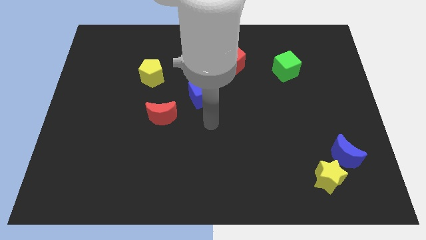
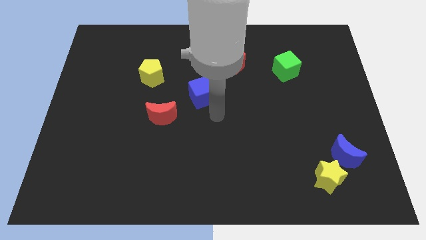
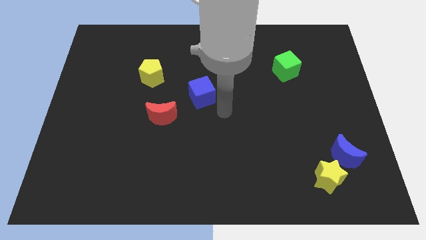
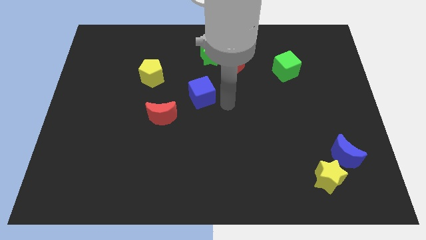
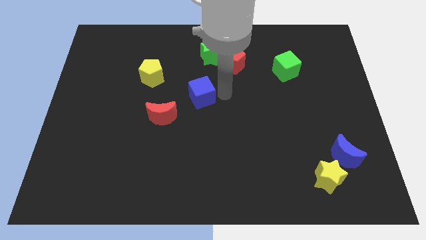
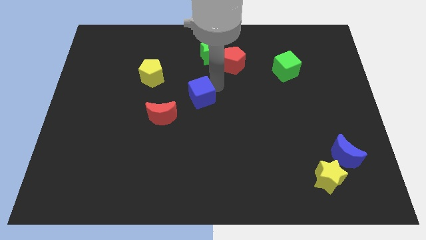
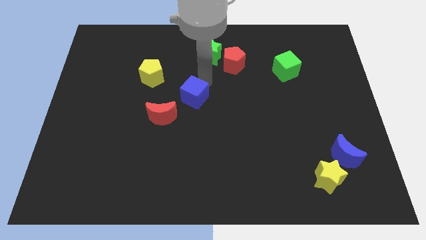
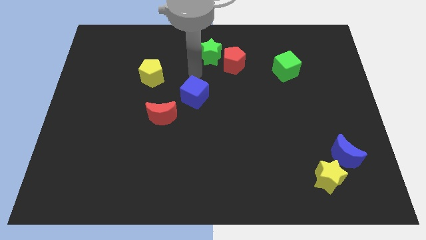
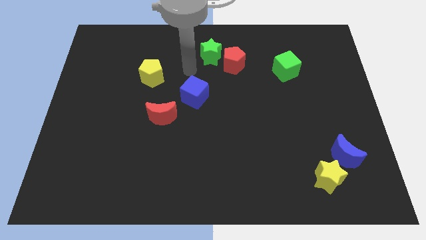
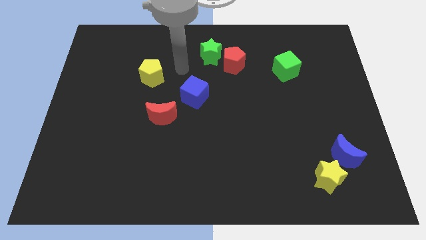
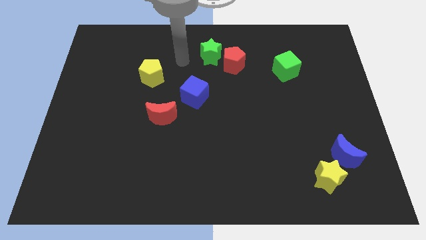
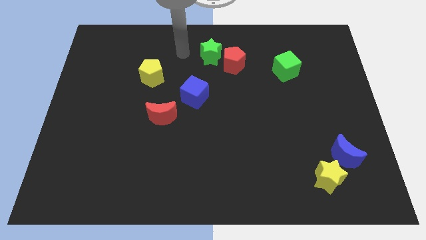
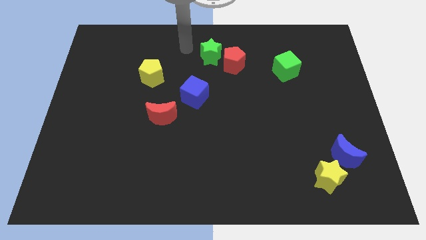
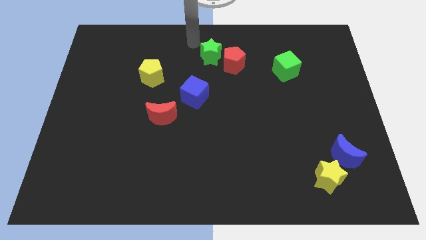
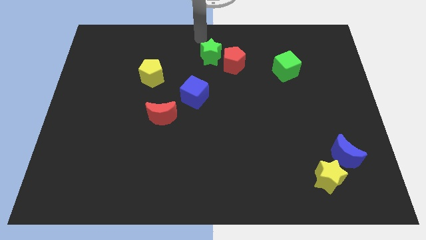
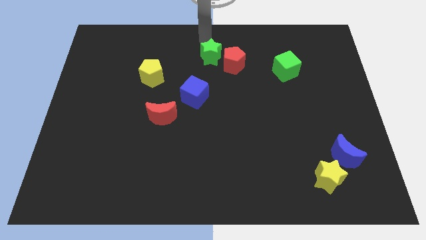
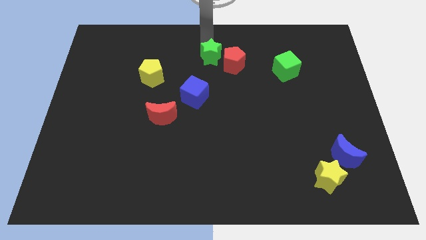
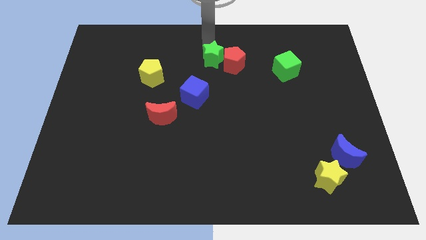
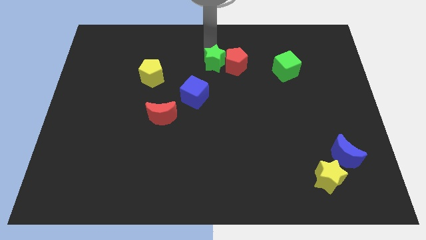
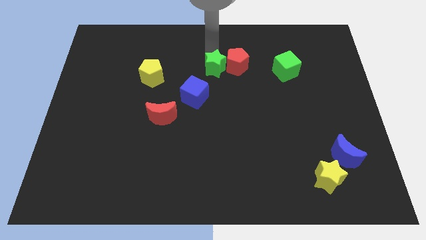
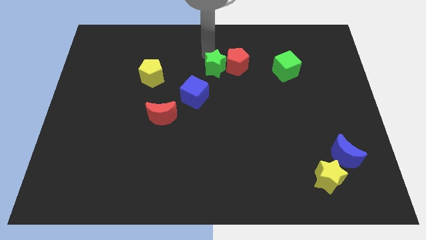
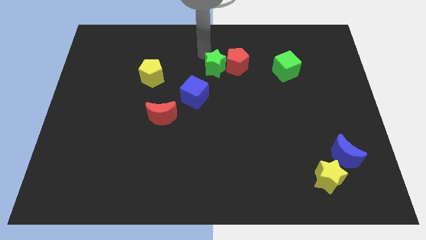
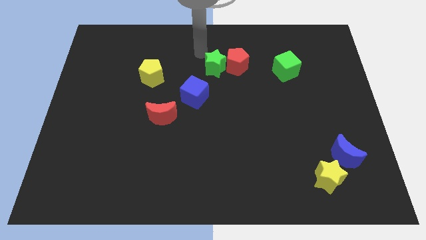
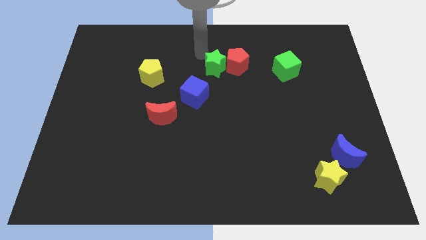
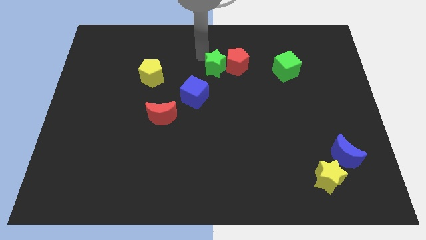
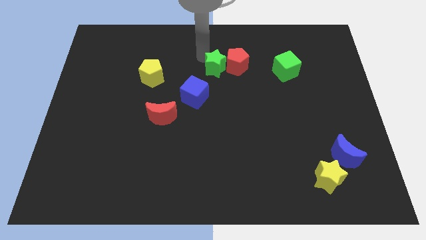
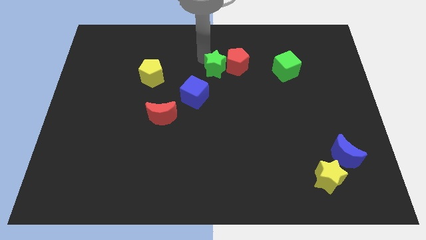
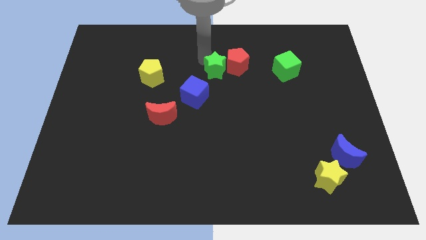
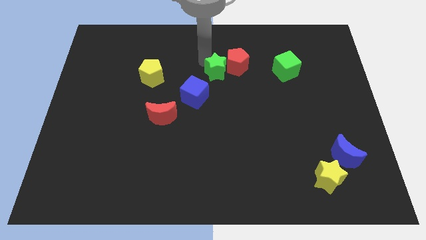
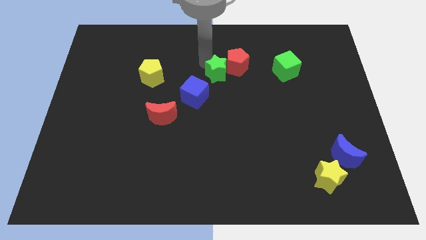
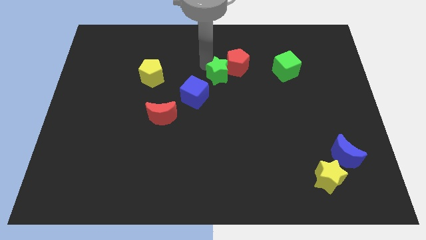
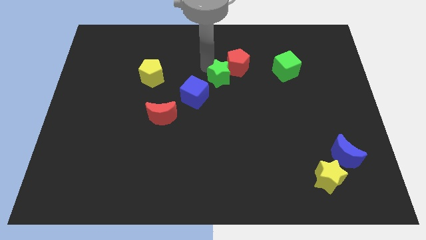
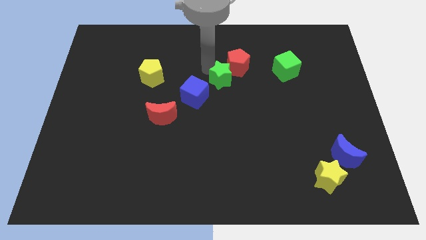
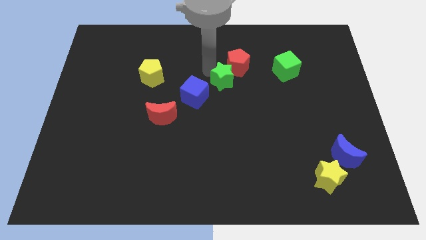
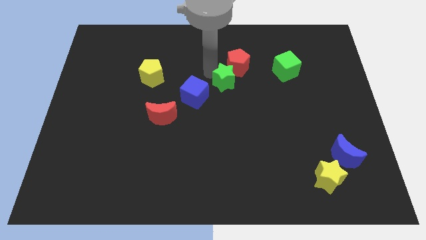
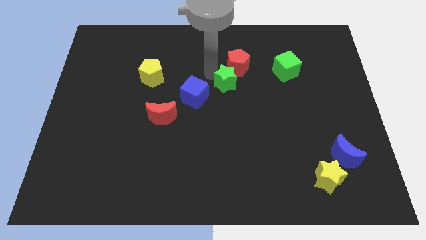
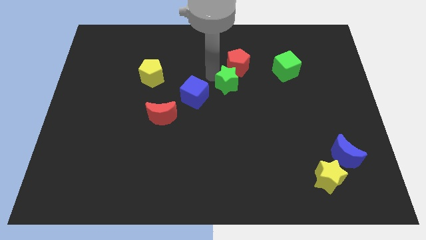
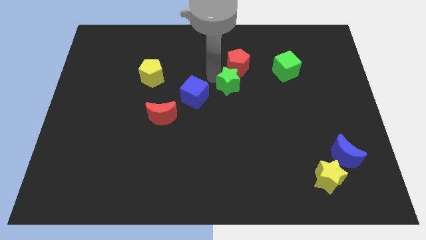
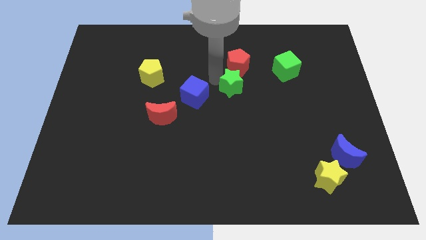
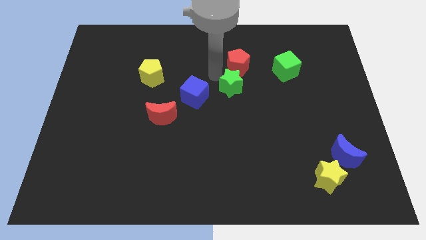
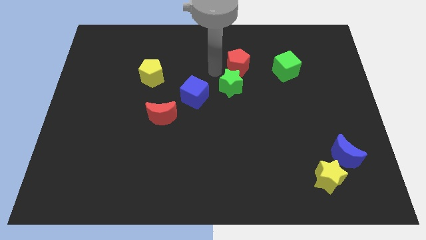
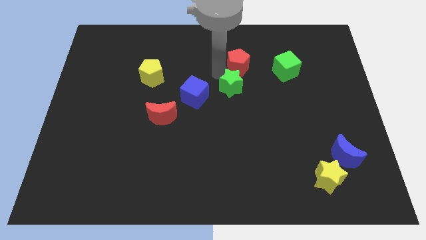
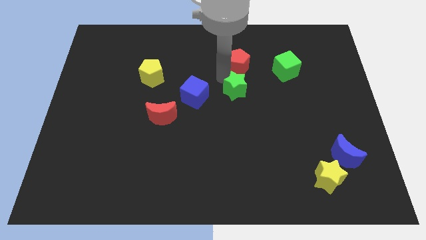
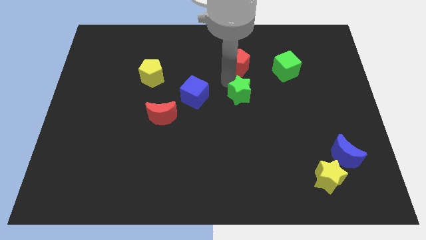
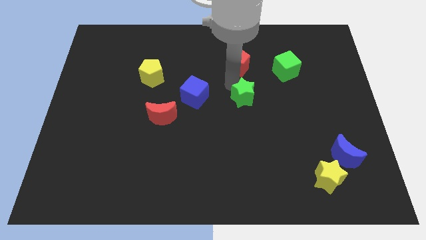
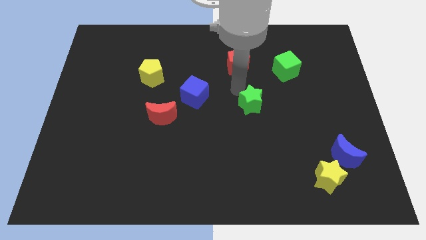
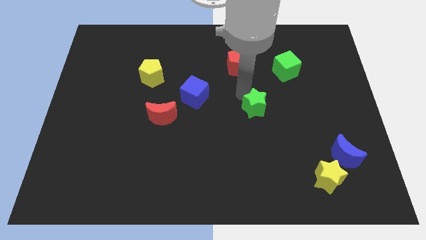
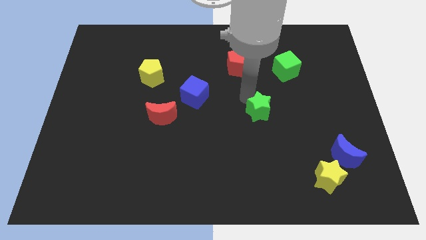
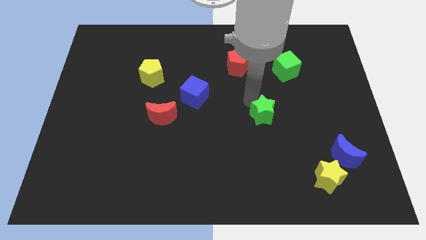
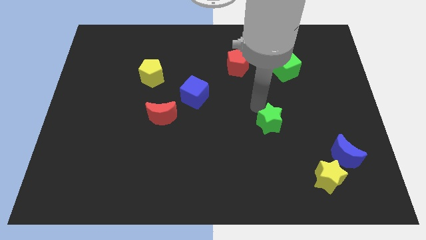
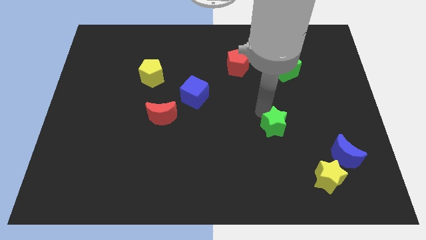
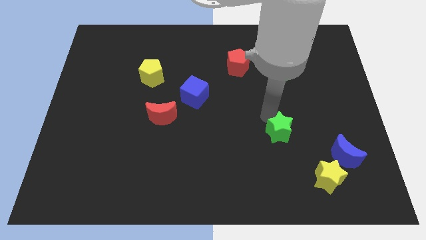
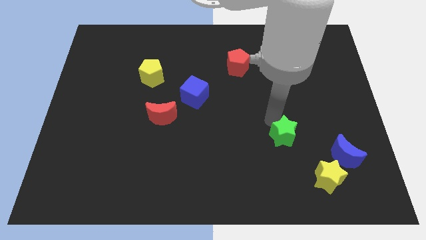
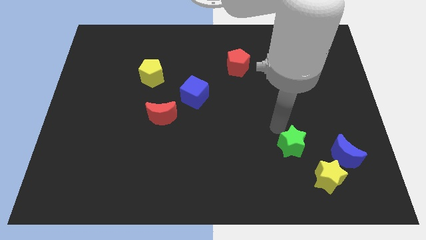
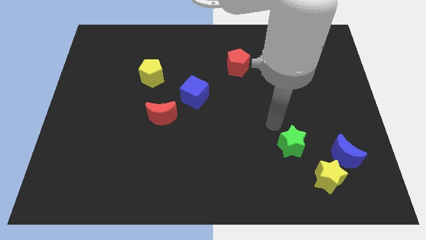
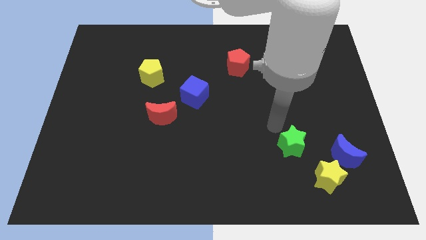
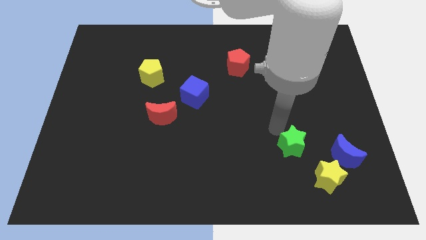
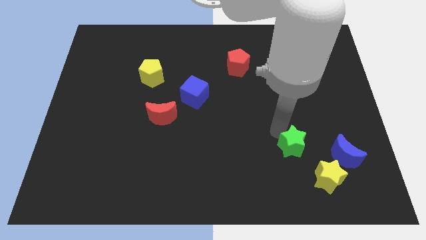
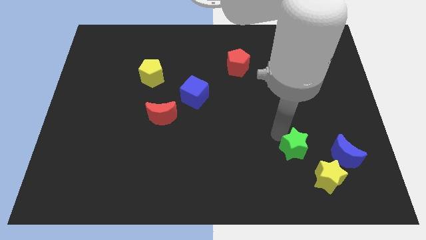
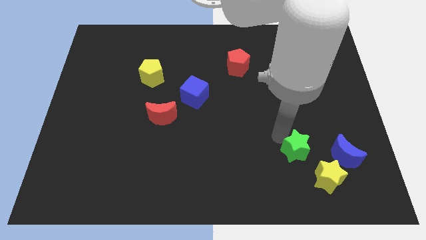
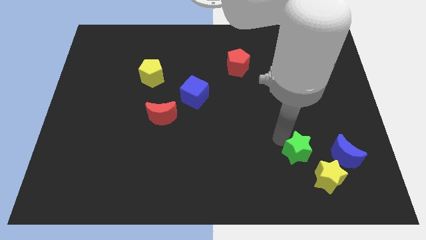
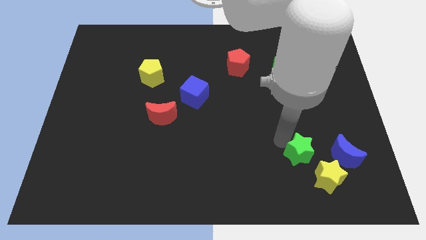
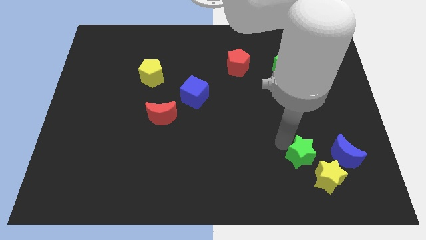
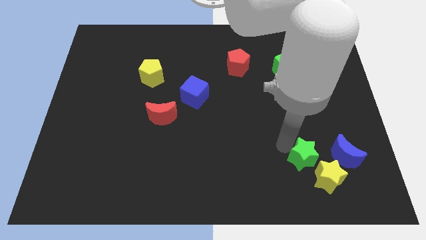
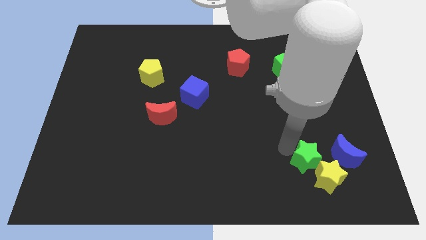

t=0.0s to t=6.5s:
slide the green star towards the yellow star
